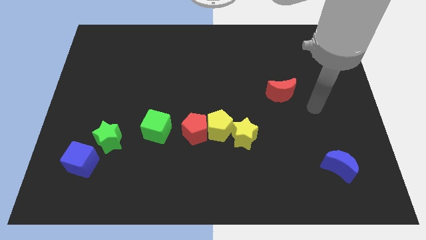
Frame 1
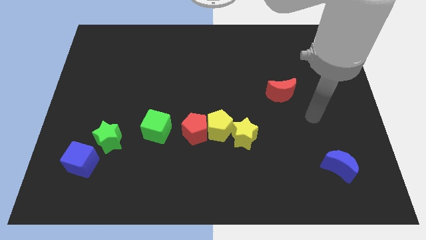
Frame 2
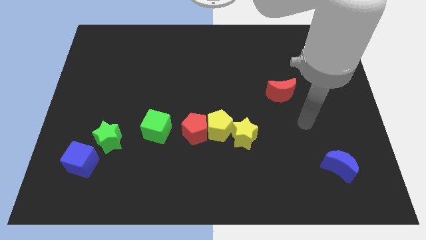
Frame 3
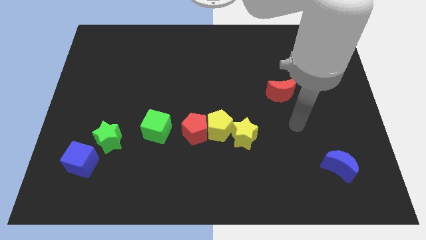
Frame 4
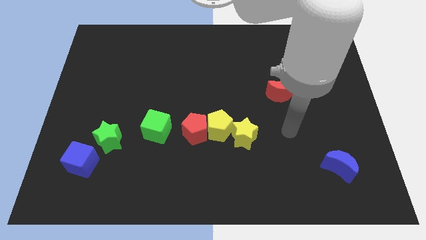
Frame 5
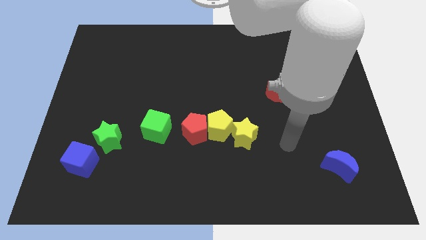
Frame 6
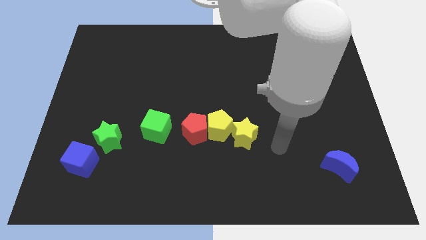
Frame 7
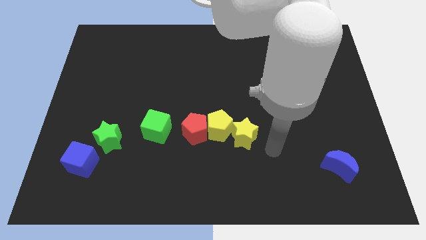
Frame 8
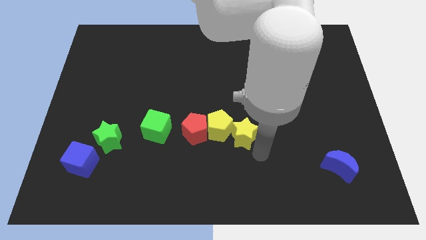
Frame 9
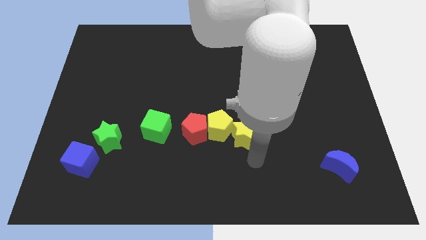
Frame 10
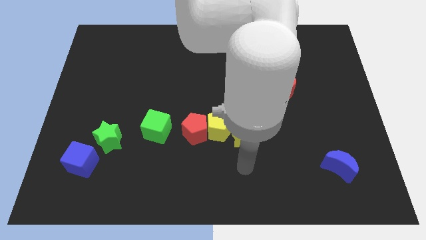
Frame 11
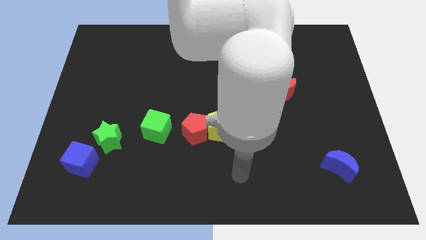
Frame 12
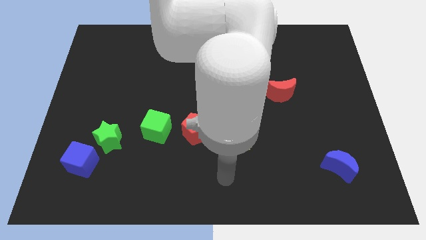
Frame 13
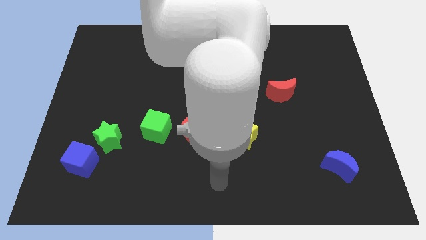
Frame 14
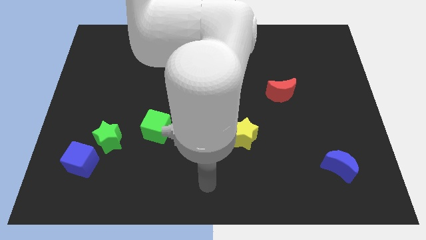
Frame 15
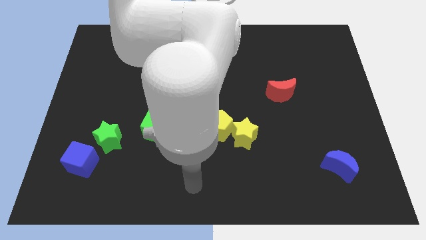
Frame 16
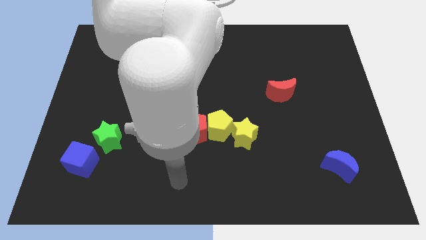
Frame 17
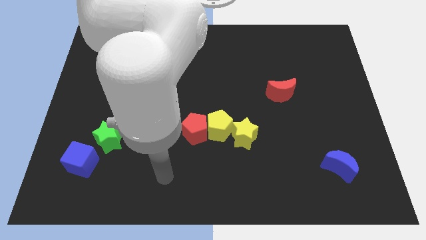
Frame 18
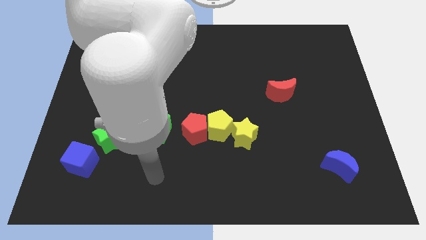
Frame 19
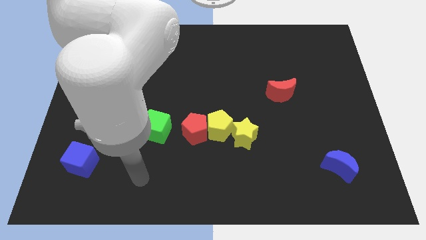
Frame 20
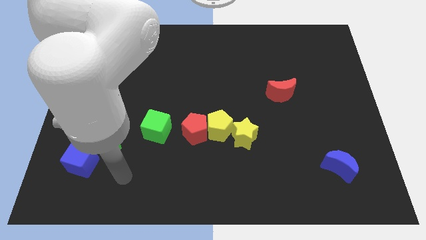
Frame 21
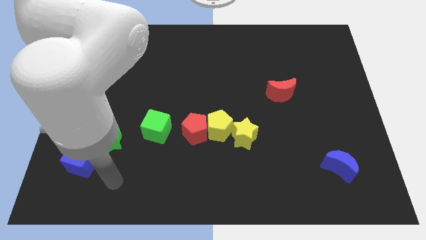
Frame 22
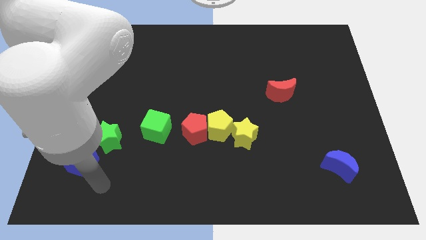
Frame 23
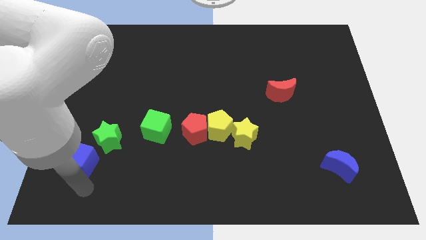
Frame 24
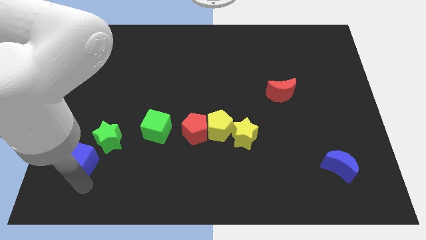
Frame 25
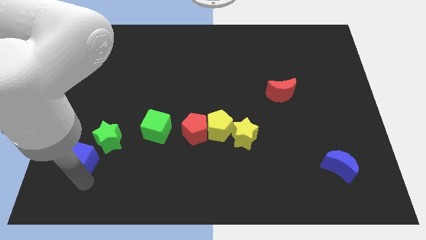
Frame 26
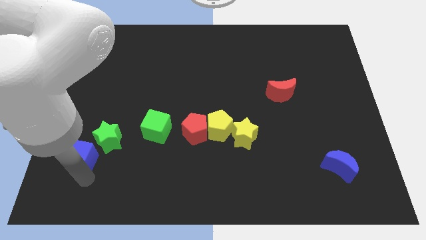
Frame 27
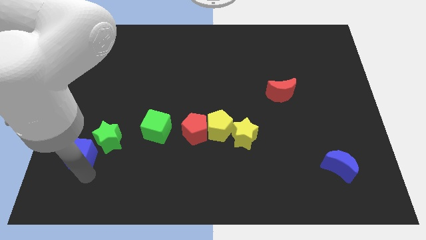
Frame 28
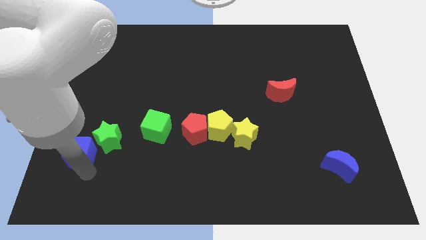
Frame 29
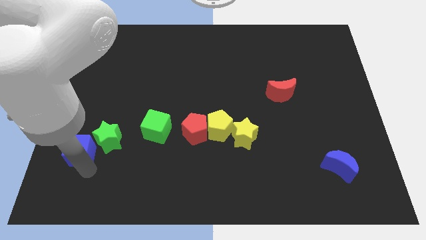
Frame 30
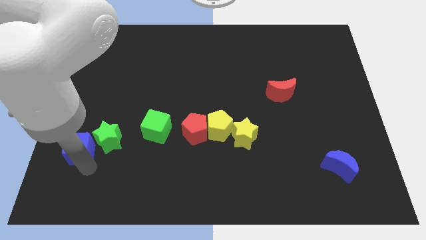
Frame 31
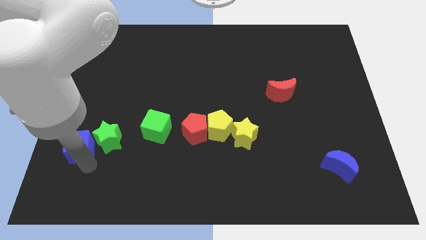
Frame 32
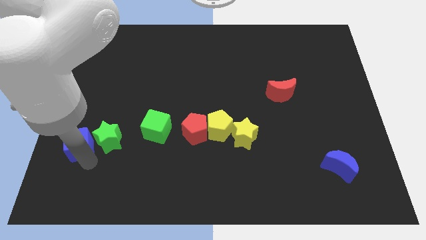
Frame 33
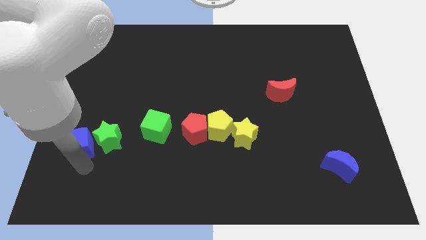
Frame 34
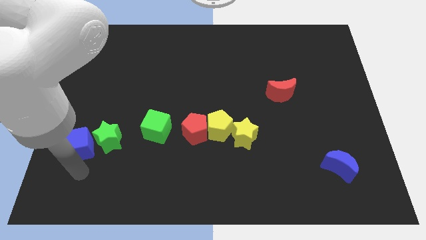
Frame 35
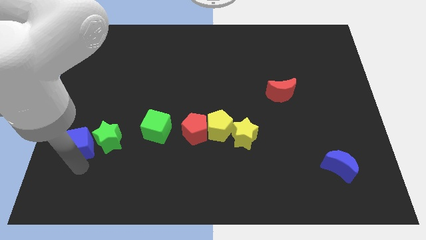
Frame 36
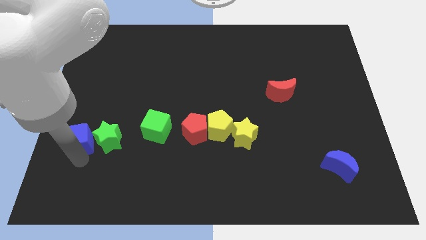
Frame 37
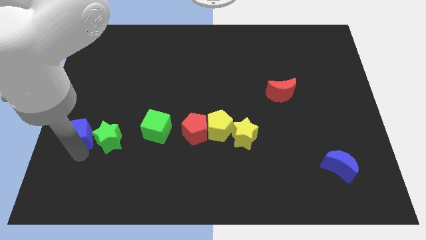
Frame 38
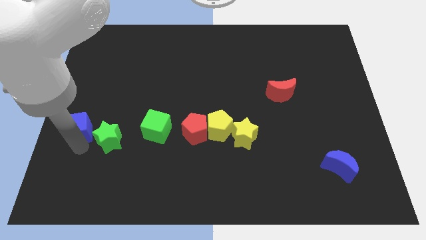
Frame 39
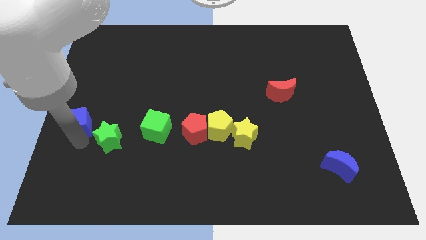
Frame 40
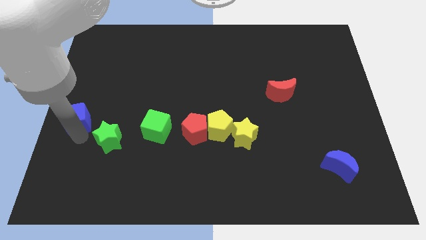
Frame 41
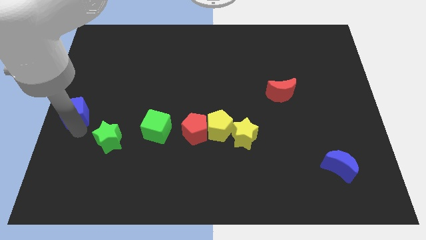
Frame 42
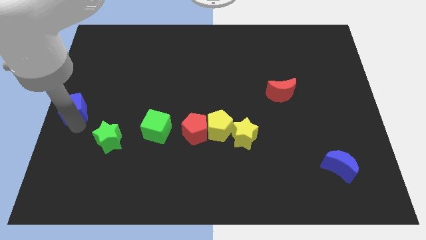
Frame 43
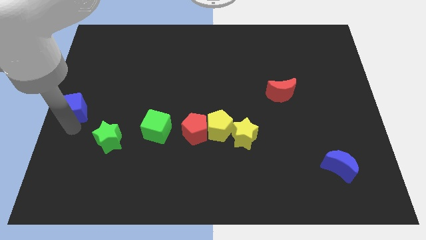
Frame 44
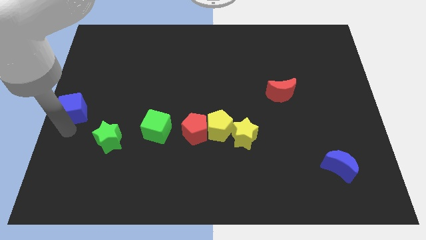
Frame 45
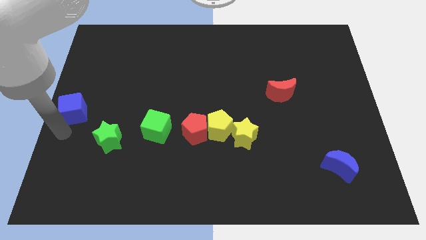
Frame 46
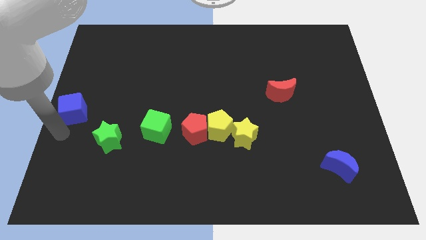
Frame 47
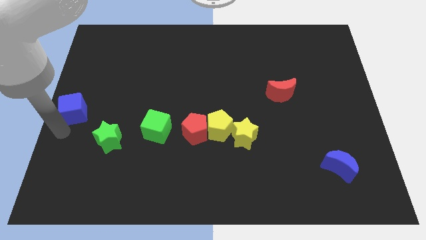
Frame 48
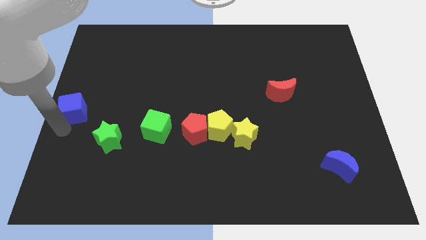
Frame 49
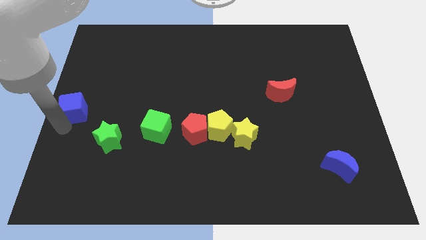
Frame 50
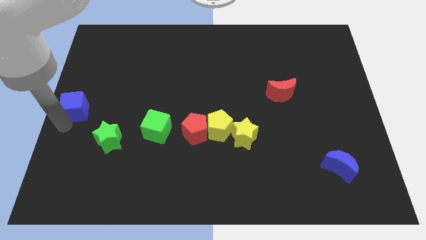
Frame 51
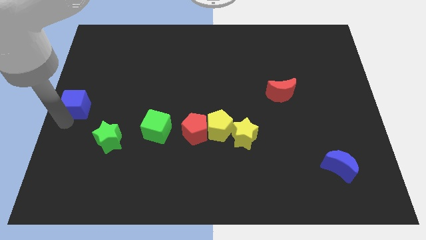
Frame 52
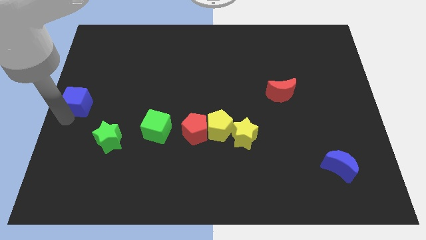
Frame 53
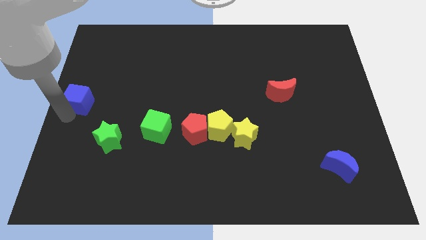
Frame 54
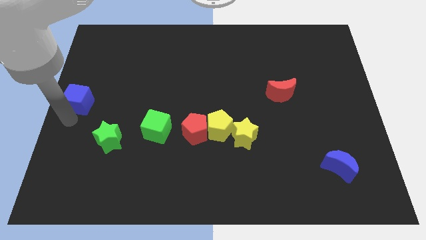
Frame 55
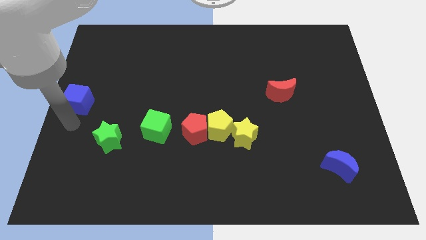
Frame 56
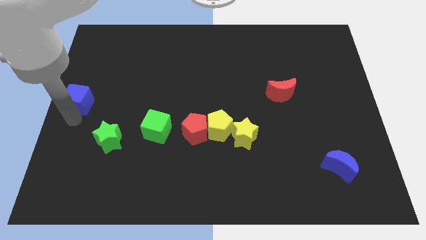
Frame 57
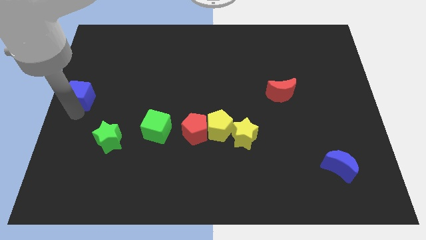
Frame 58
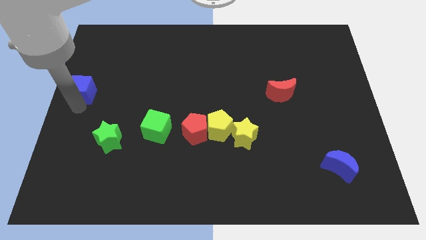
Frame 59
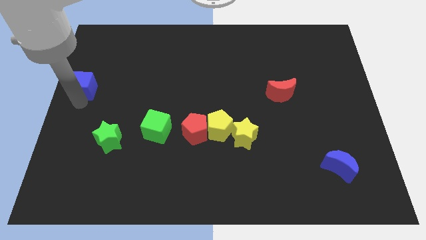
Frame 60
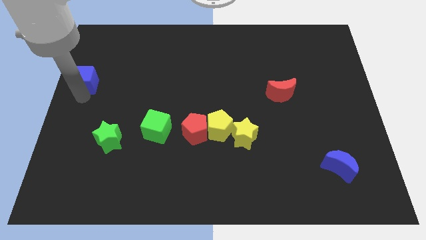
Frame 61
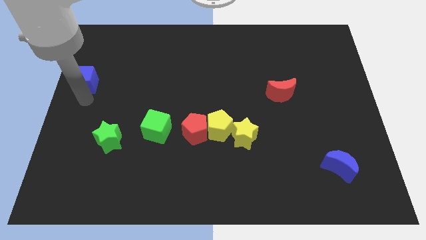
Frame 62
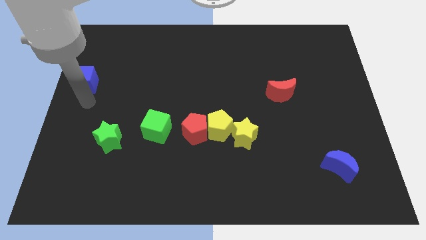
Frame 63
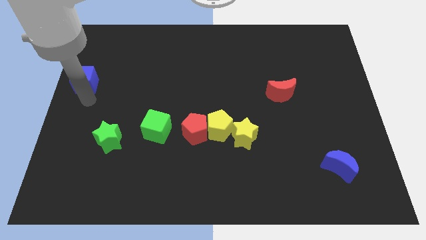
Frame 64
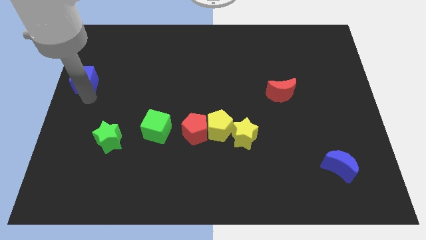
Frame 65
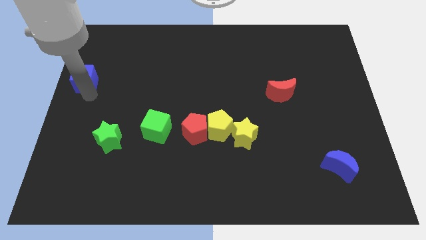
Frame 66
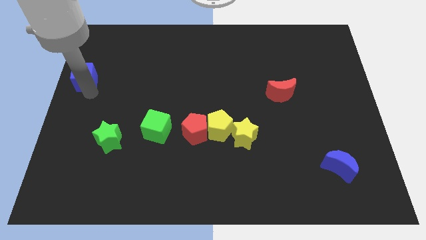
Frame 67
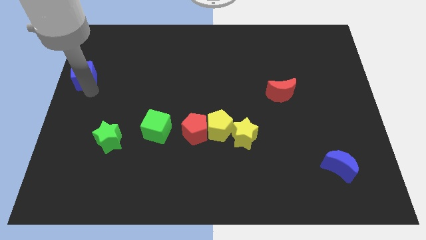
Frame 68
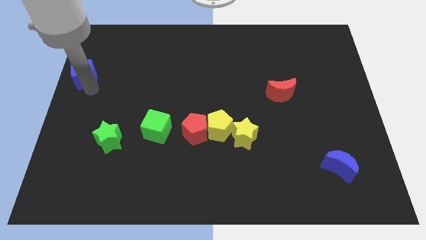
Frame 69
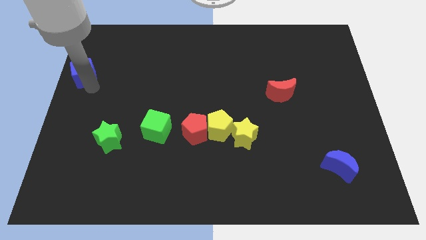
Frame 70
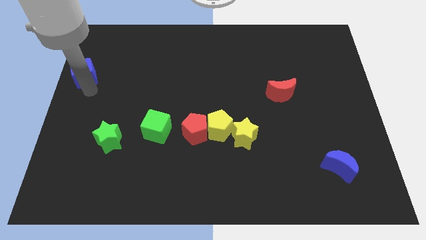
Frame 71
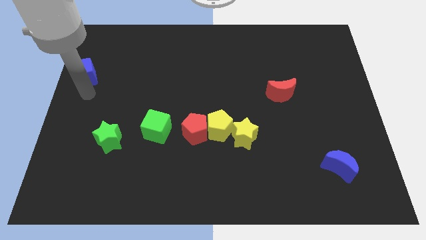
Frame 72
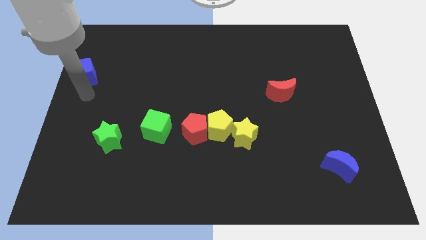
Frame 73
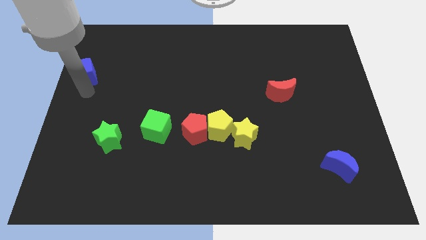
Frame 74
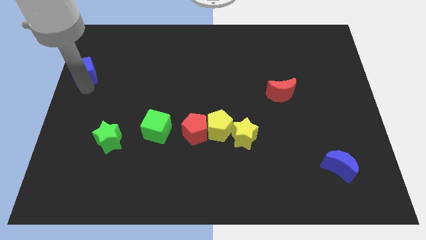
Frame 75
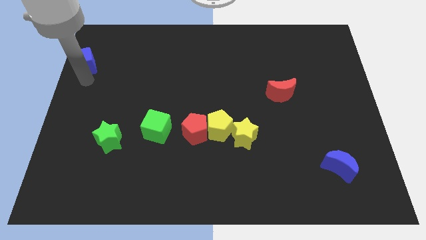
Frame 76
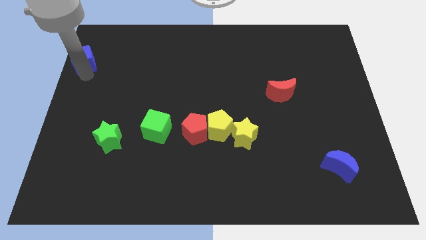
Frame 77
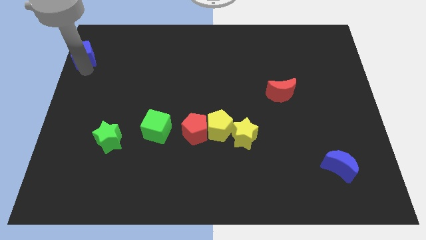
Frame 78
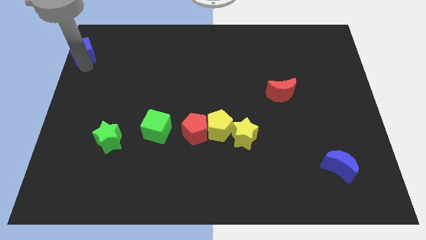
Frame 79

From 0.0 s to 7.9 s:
slide the blue cube to the top left
